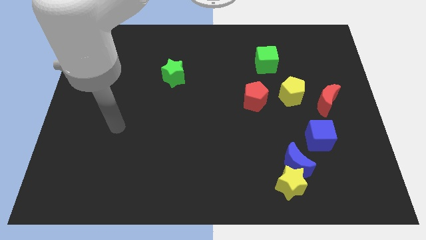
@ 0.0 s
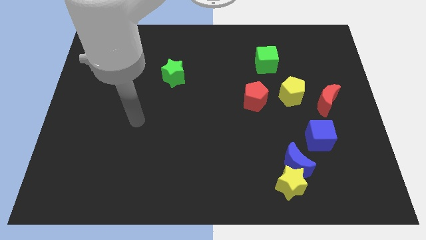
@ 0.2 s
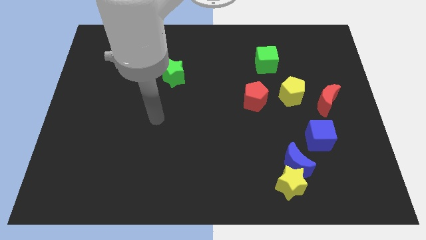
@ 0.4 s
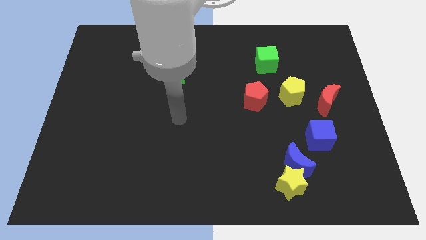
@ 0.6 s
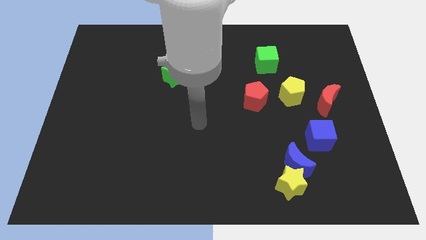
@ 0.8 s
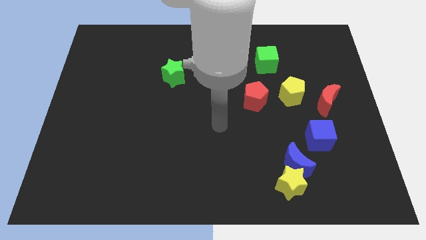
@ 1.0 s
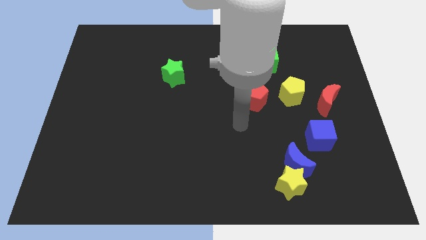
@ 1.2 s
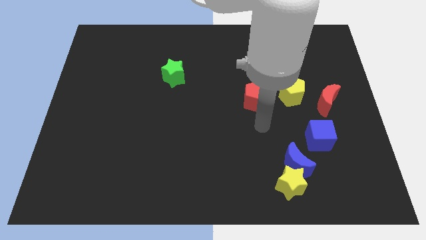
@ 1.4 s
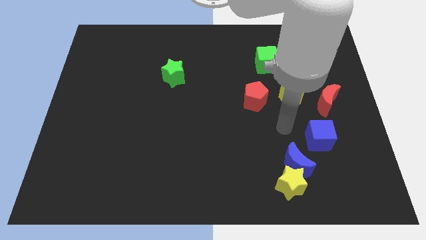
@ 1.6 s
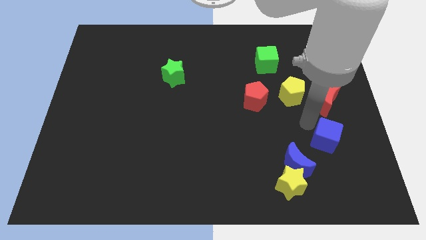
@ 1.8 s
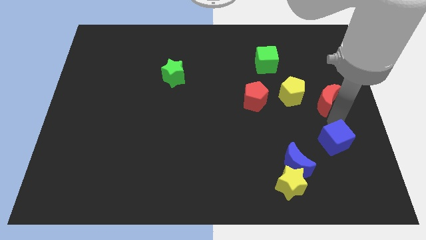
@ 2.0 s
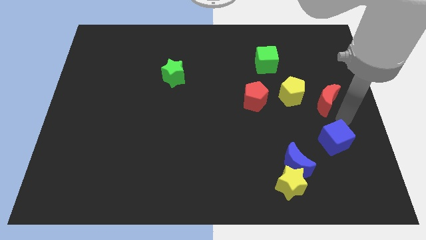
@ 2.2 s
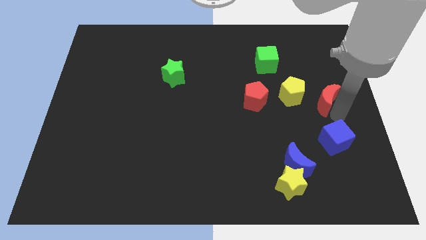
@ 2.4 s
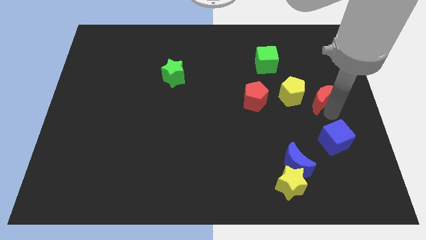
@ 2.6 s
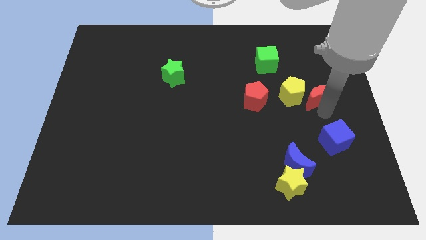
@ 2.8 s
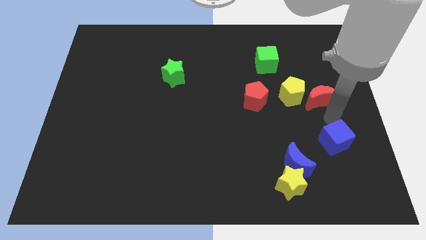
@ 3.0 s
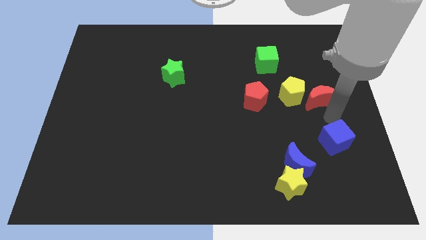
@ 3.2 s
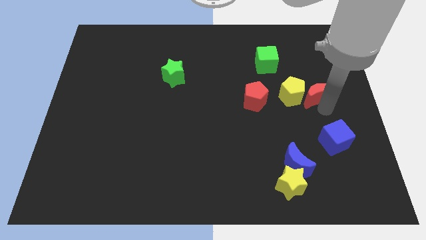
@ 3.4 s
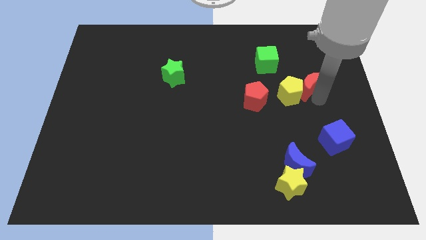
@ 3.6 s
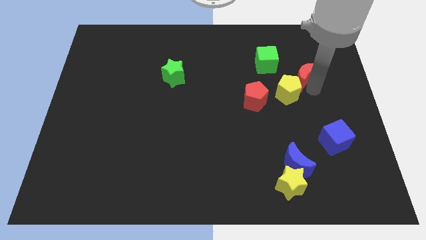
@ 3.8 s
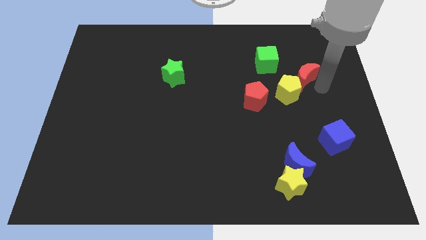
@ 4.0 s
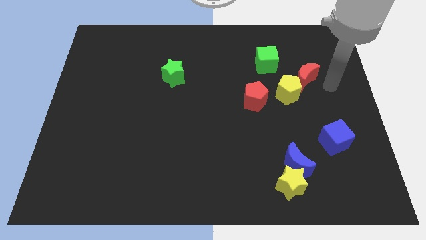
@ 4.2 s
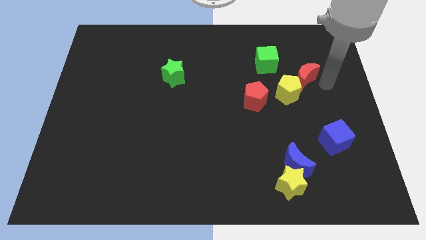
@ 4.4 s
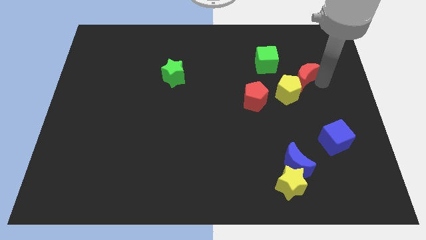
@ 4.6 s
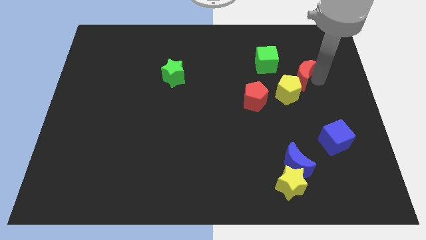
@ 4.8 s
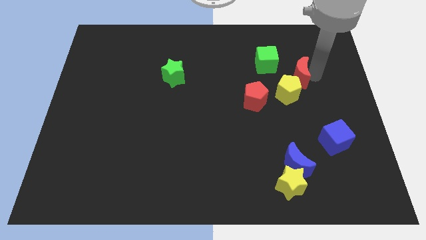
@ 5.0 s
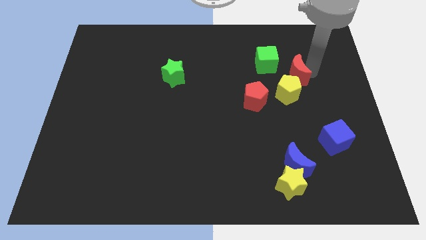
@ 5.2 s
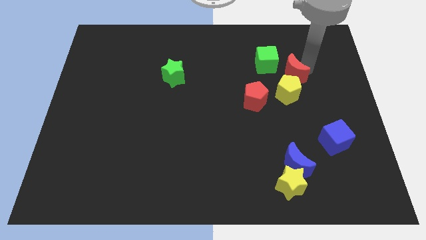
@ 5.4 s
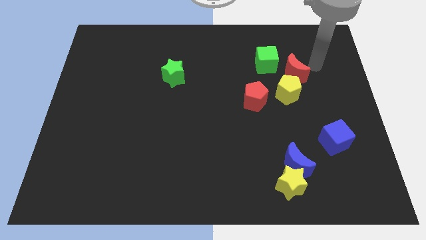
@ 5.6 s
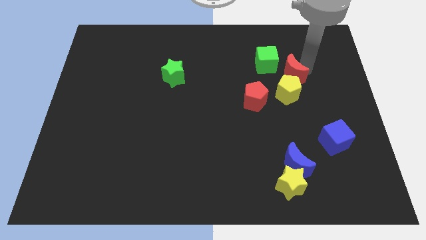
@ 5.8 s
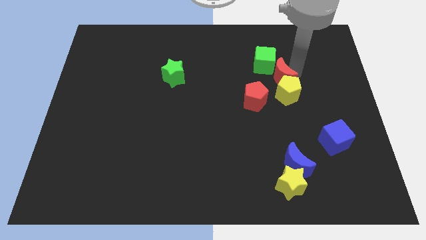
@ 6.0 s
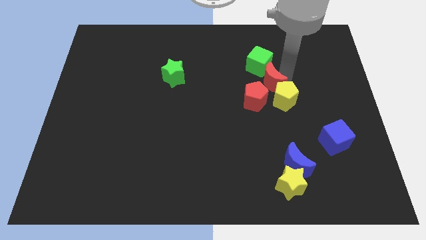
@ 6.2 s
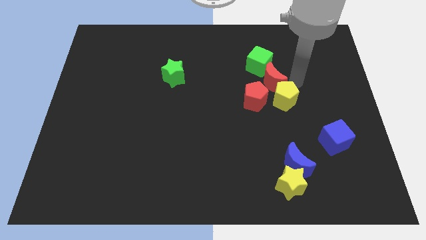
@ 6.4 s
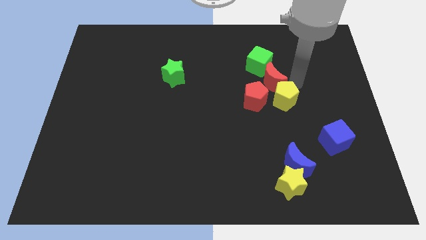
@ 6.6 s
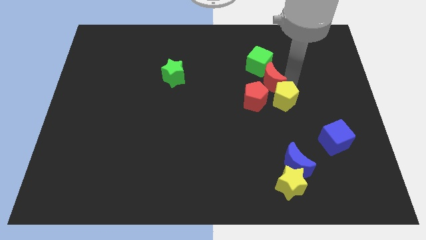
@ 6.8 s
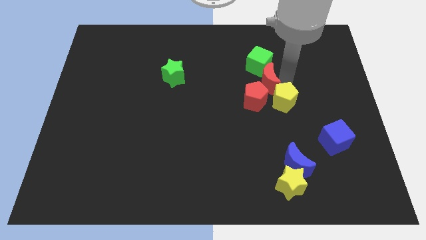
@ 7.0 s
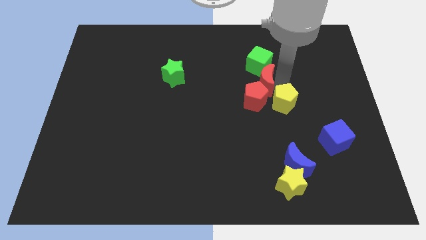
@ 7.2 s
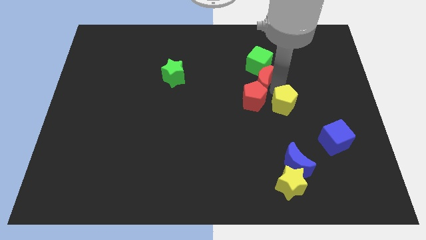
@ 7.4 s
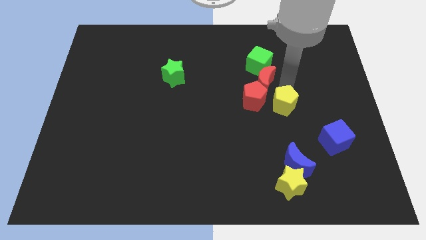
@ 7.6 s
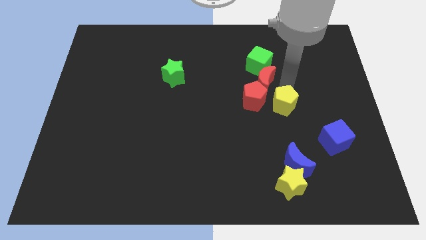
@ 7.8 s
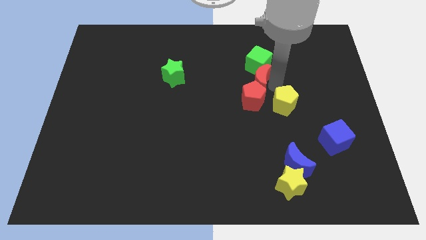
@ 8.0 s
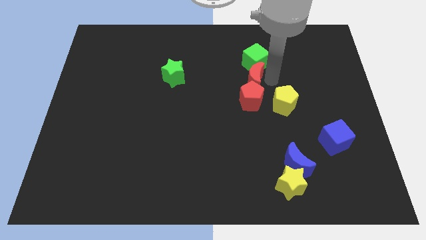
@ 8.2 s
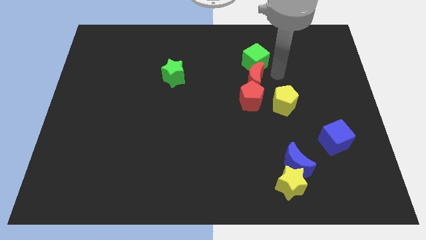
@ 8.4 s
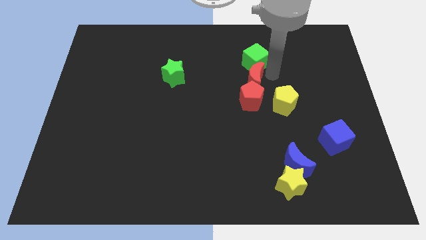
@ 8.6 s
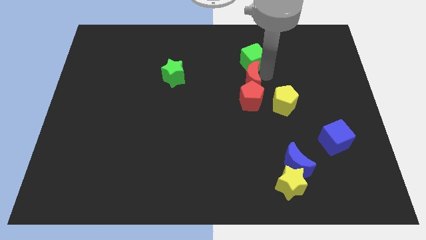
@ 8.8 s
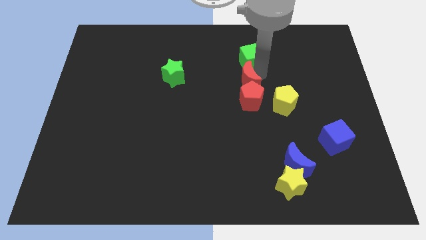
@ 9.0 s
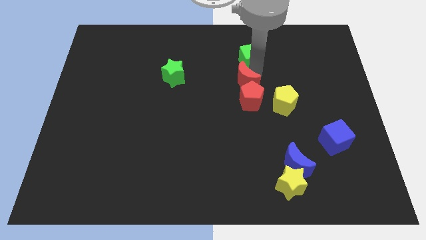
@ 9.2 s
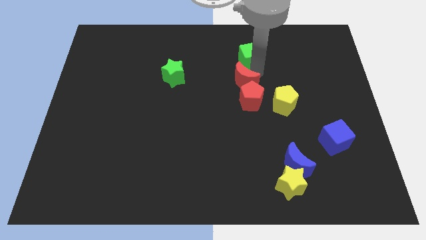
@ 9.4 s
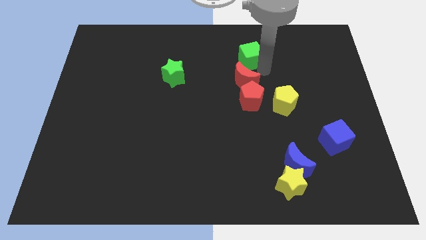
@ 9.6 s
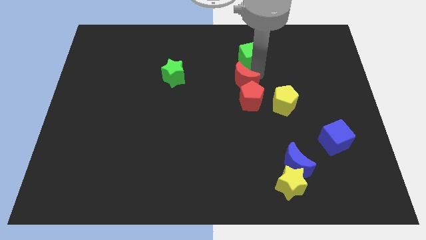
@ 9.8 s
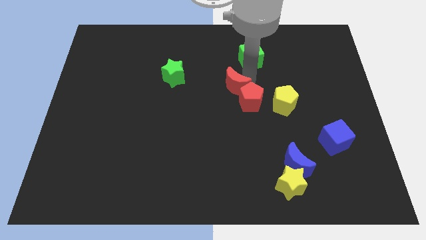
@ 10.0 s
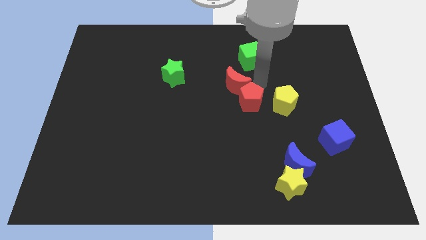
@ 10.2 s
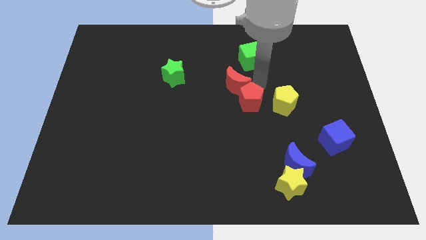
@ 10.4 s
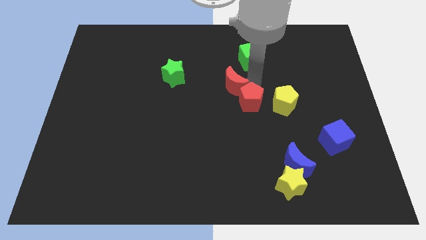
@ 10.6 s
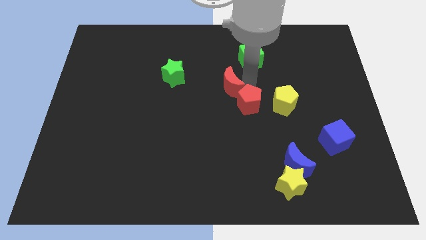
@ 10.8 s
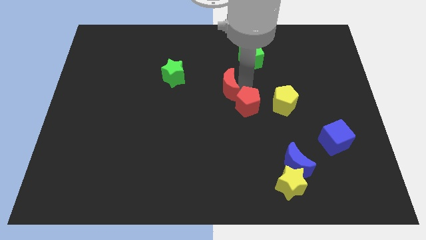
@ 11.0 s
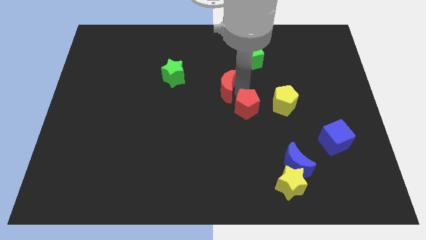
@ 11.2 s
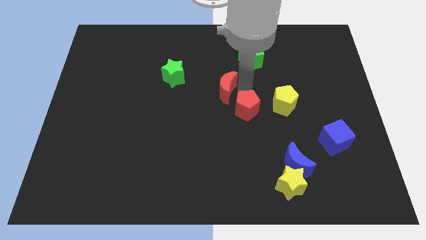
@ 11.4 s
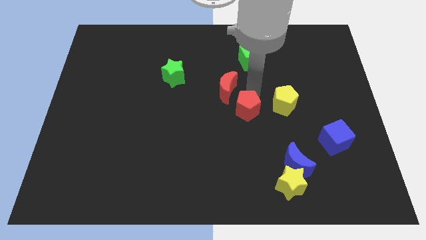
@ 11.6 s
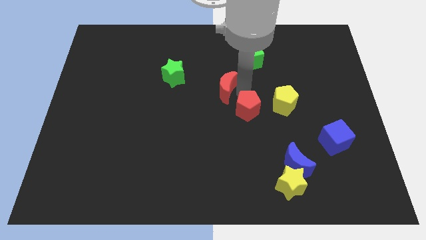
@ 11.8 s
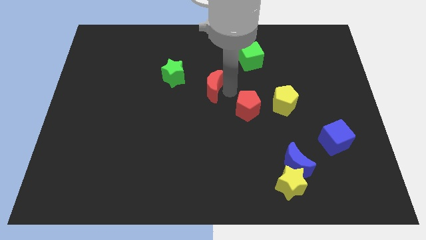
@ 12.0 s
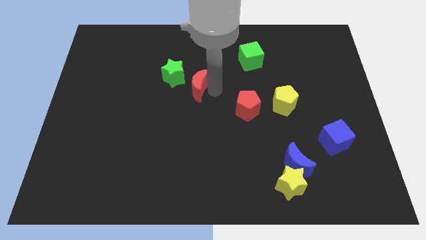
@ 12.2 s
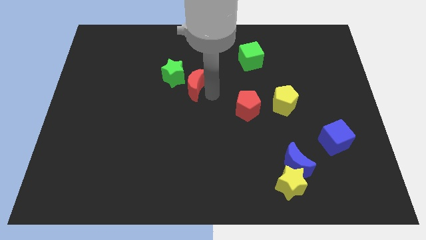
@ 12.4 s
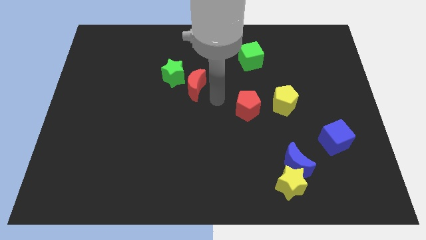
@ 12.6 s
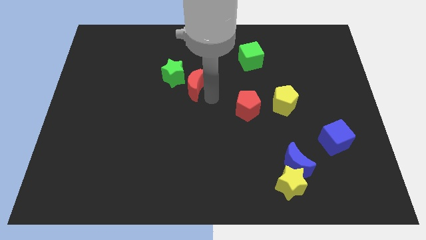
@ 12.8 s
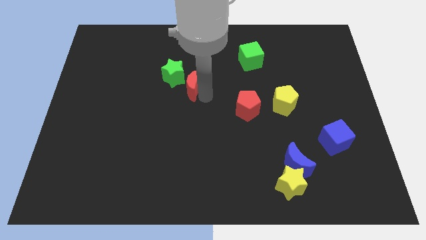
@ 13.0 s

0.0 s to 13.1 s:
move the red moon towards the green star
